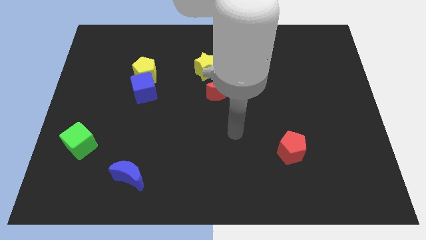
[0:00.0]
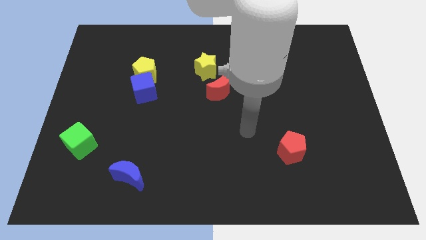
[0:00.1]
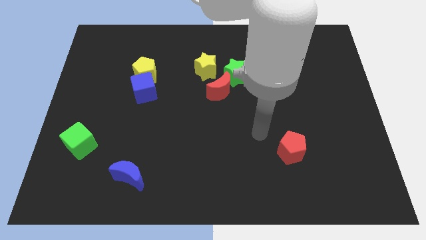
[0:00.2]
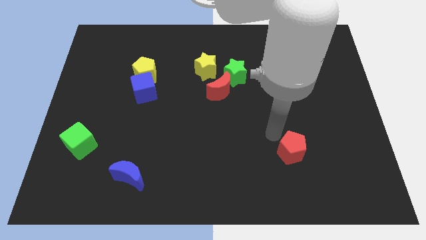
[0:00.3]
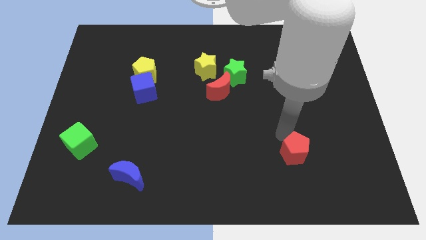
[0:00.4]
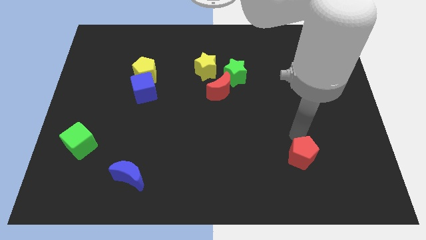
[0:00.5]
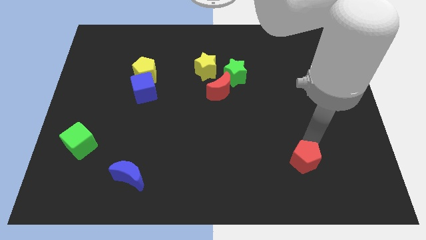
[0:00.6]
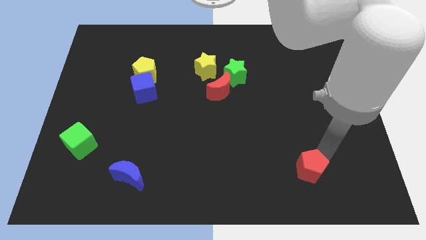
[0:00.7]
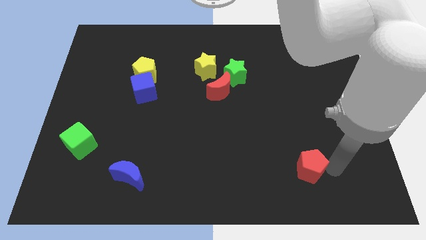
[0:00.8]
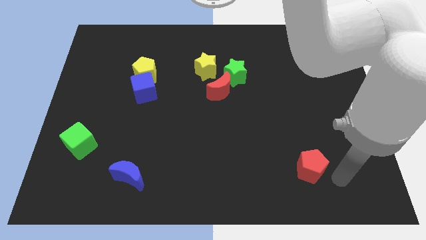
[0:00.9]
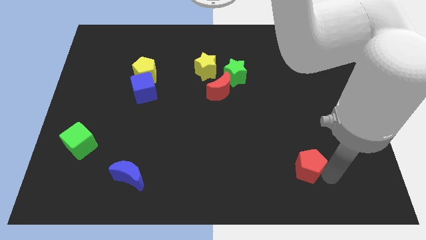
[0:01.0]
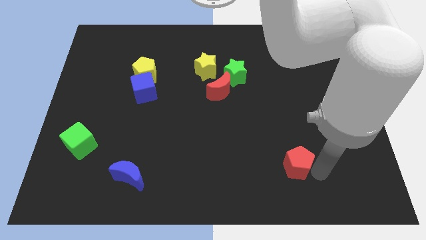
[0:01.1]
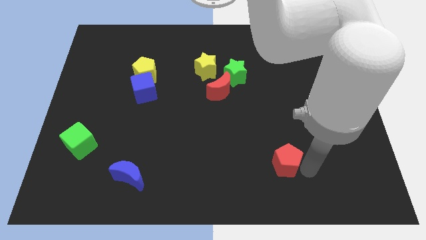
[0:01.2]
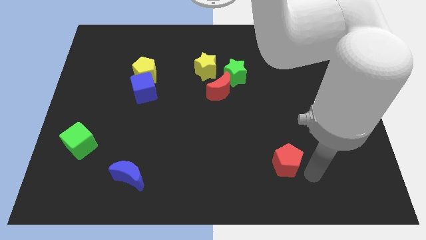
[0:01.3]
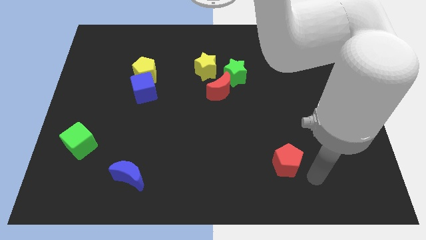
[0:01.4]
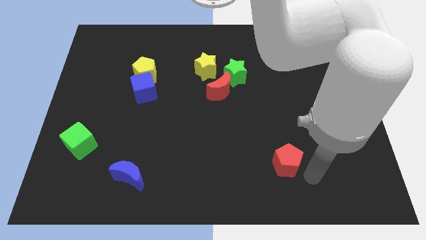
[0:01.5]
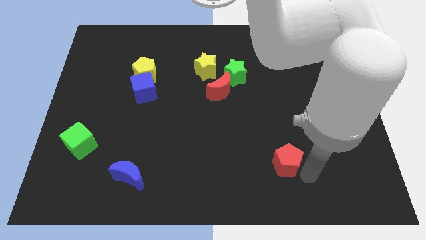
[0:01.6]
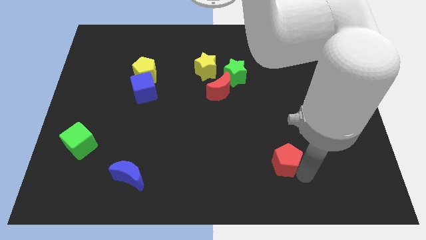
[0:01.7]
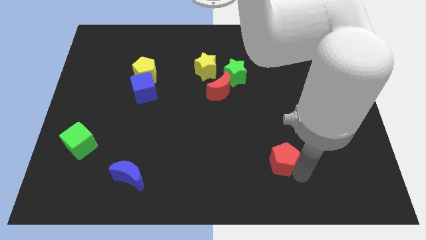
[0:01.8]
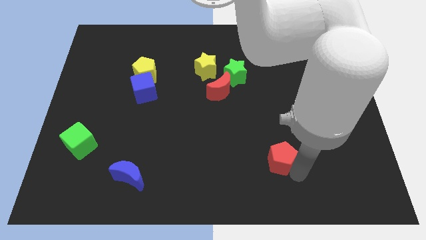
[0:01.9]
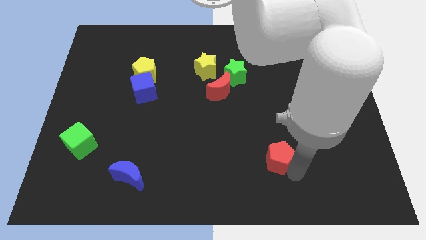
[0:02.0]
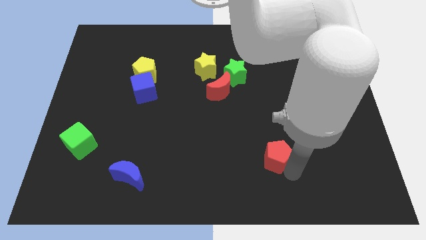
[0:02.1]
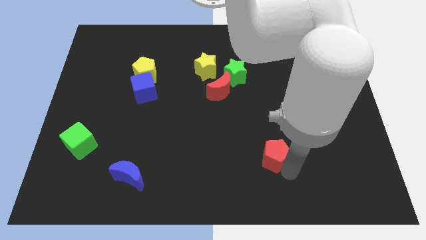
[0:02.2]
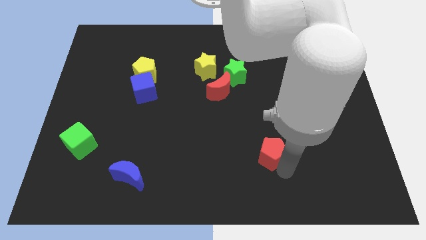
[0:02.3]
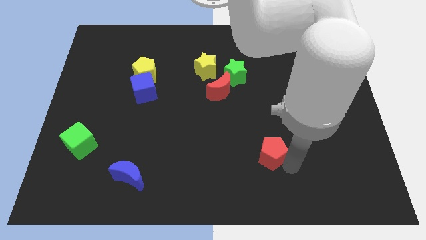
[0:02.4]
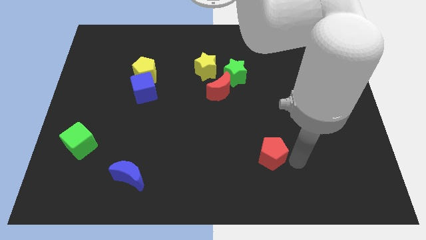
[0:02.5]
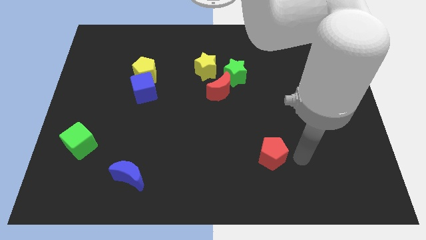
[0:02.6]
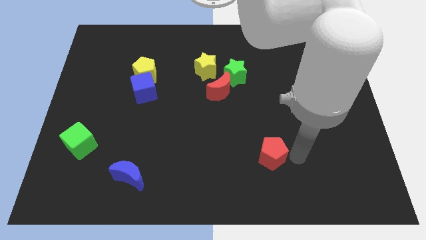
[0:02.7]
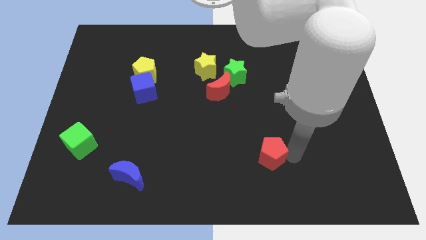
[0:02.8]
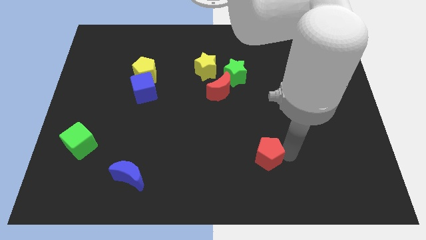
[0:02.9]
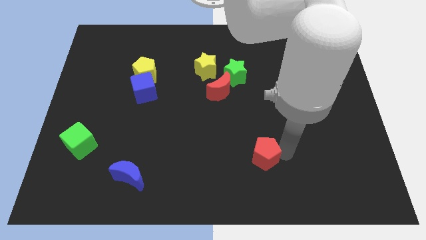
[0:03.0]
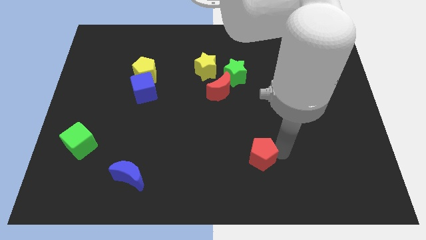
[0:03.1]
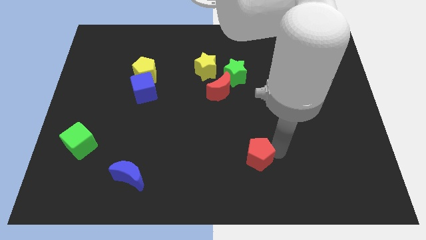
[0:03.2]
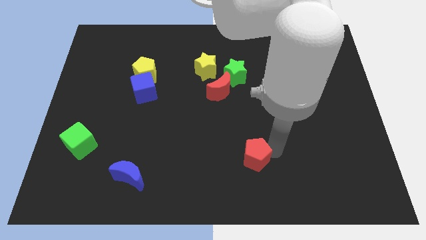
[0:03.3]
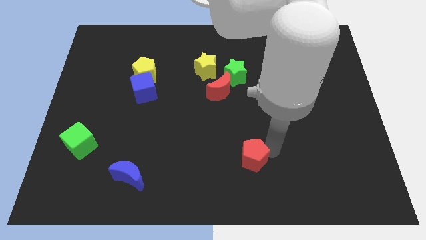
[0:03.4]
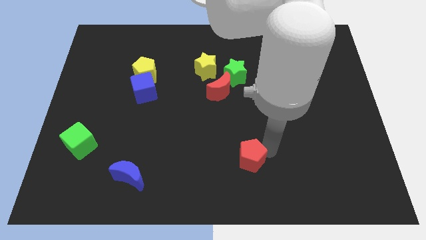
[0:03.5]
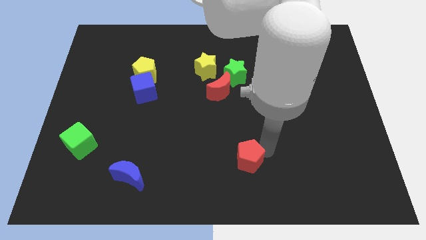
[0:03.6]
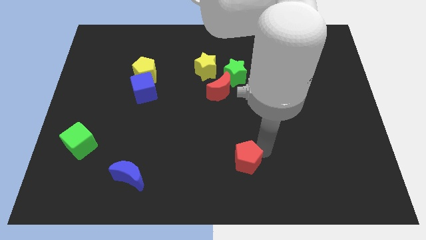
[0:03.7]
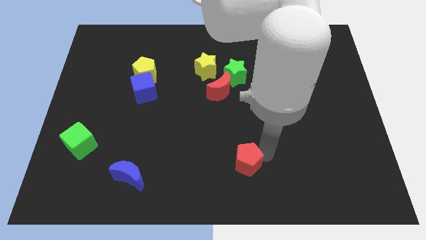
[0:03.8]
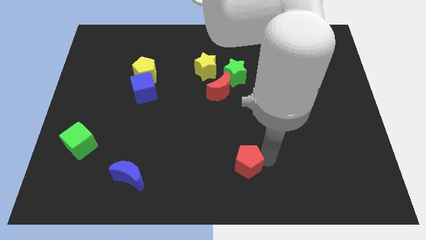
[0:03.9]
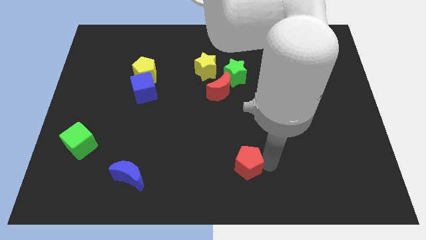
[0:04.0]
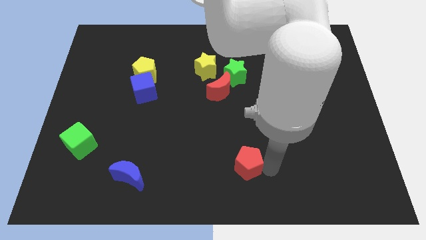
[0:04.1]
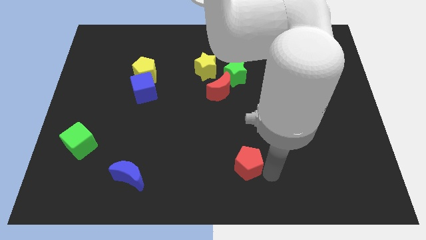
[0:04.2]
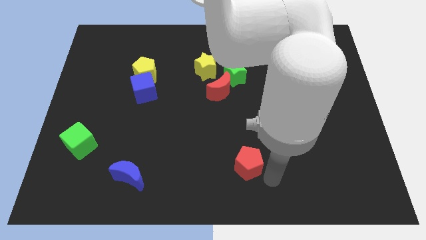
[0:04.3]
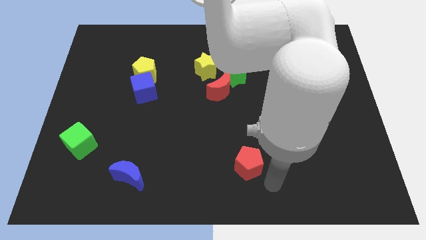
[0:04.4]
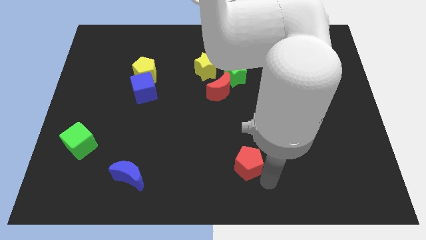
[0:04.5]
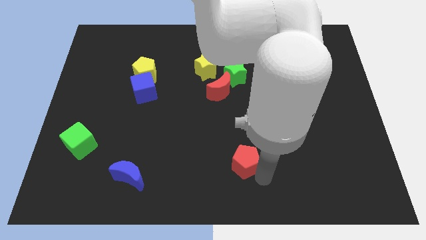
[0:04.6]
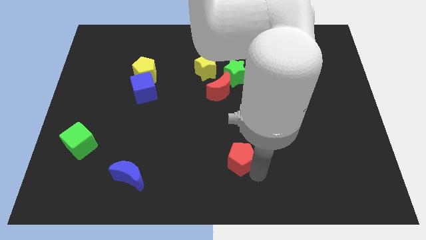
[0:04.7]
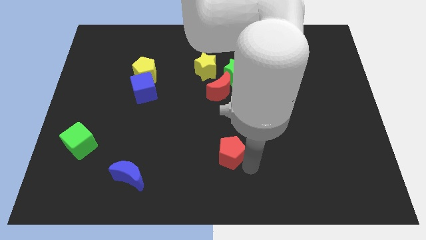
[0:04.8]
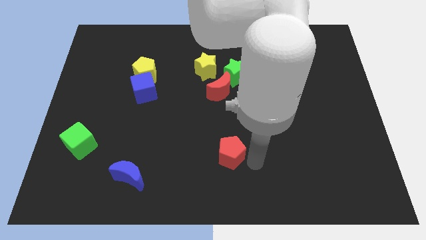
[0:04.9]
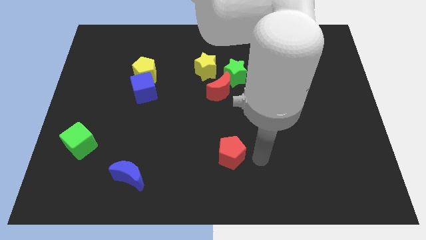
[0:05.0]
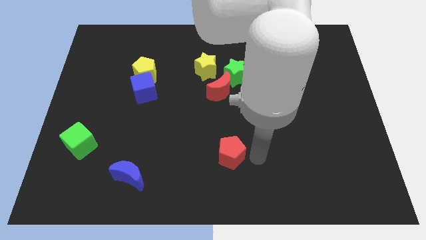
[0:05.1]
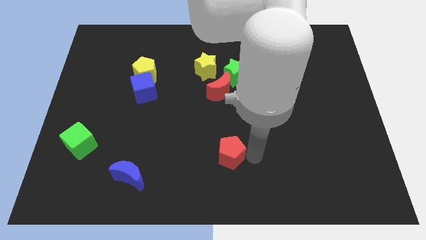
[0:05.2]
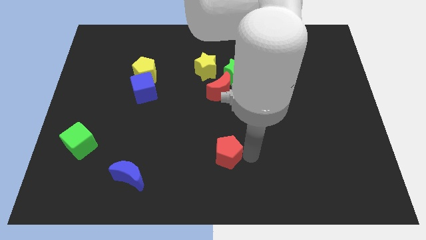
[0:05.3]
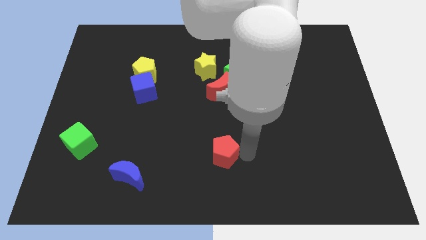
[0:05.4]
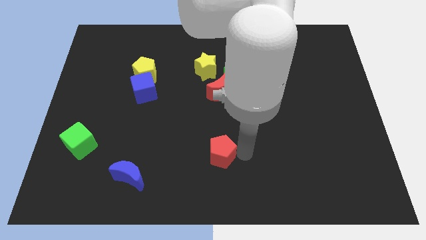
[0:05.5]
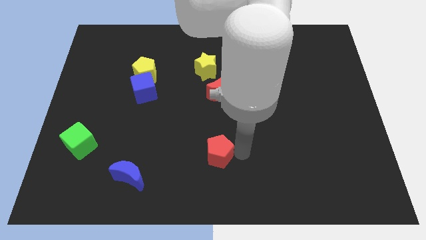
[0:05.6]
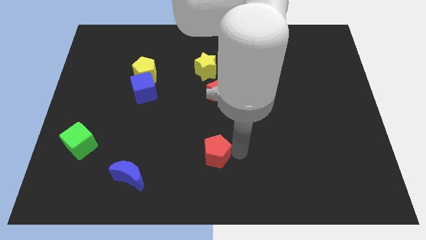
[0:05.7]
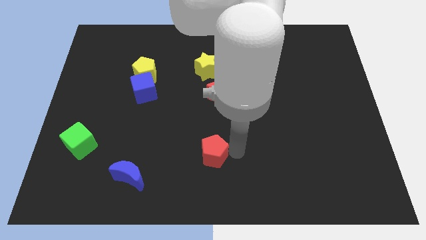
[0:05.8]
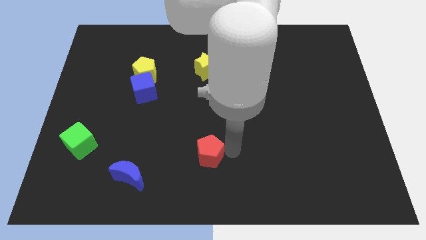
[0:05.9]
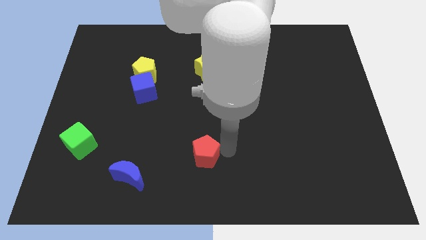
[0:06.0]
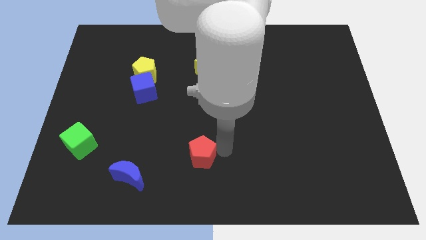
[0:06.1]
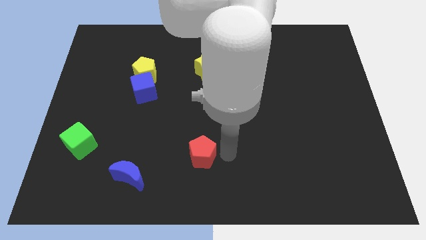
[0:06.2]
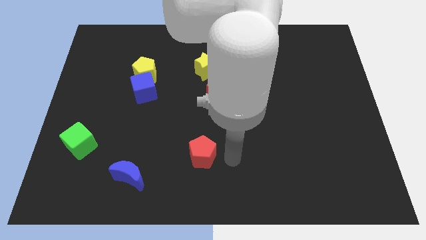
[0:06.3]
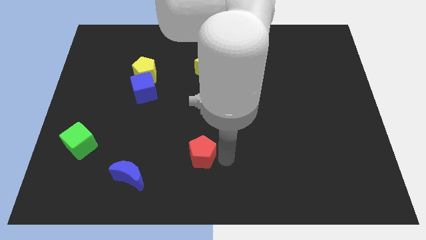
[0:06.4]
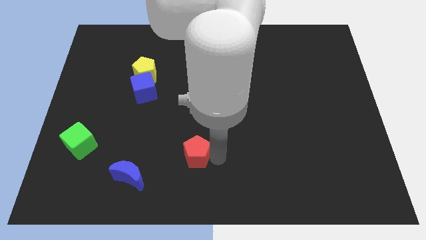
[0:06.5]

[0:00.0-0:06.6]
move the red pentagon left

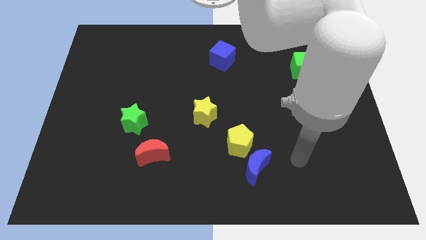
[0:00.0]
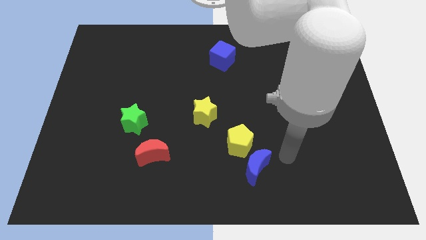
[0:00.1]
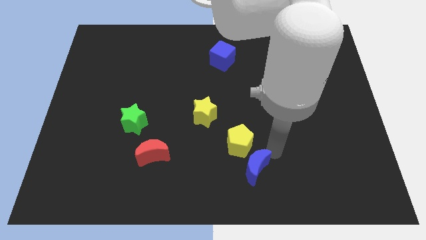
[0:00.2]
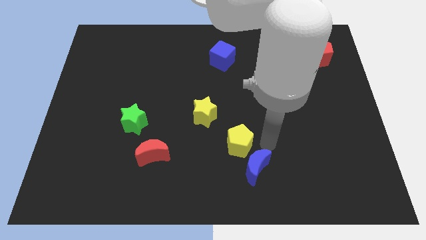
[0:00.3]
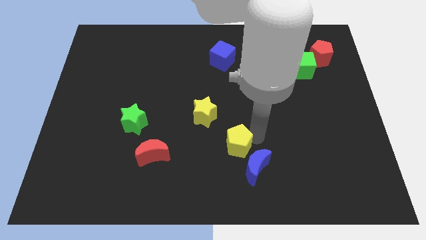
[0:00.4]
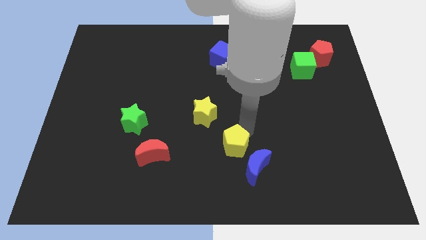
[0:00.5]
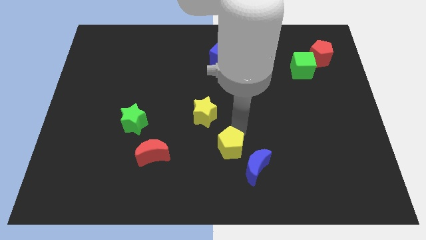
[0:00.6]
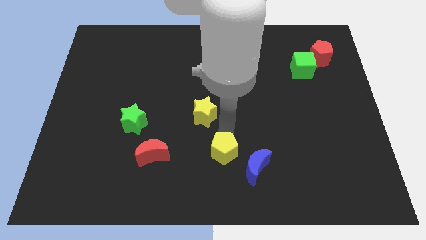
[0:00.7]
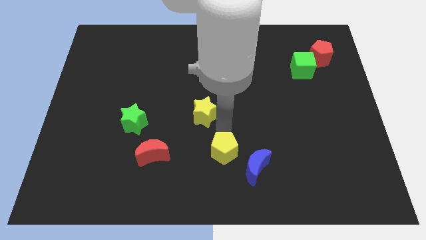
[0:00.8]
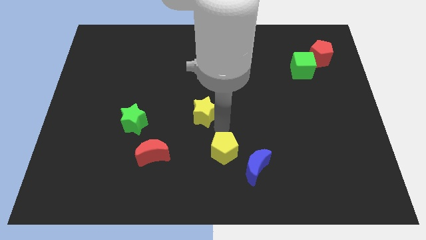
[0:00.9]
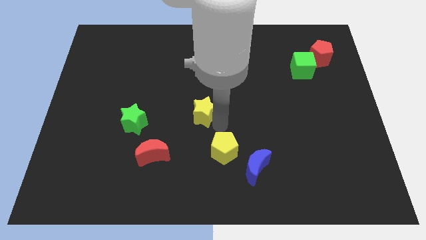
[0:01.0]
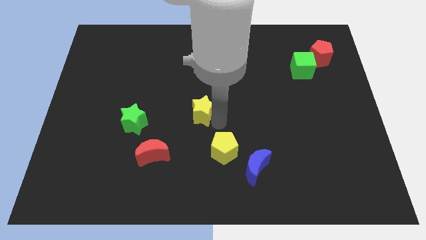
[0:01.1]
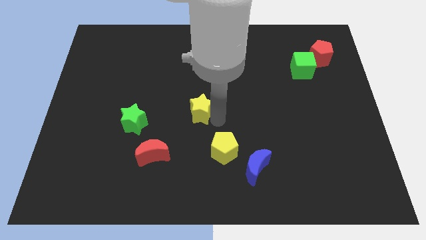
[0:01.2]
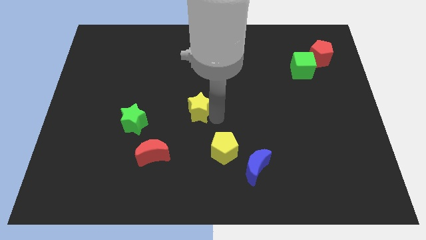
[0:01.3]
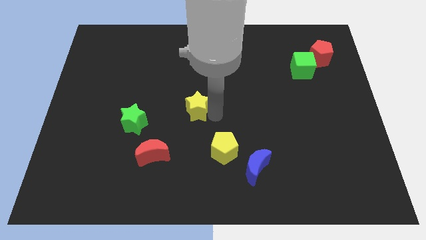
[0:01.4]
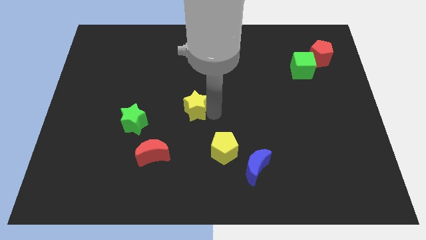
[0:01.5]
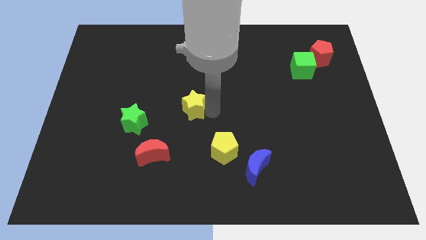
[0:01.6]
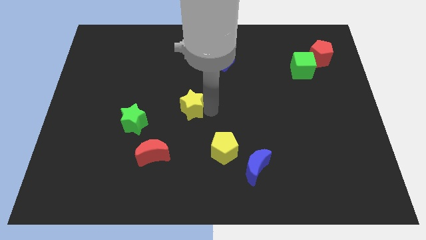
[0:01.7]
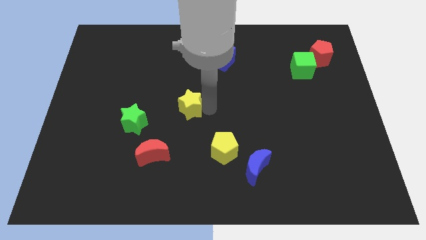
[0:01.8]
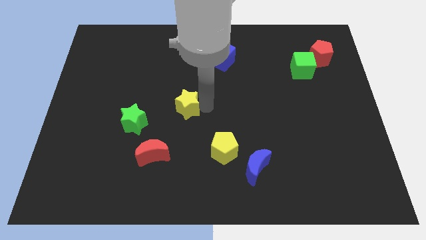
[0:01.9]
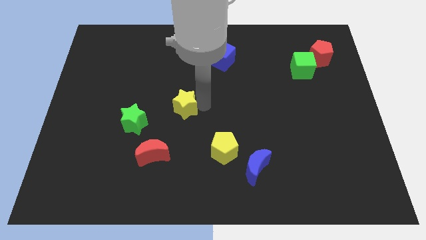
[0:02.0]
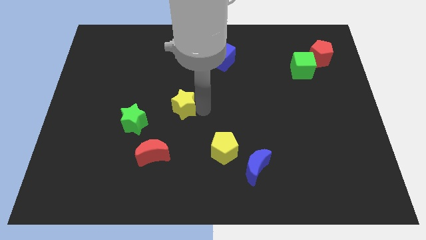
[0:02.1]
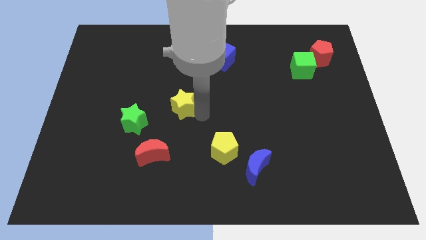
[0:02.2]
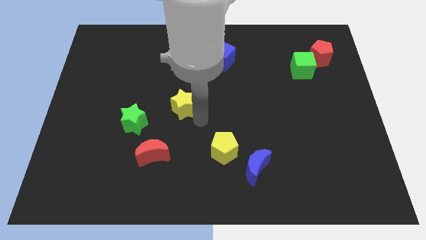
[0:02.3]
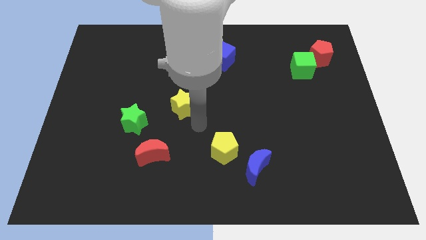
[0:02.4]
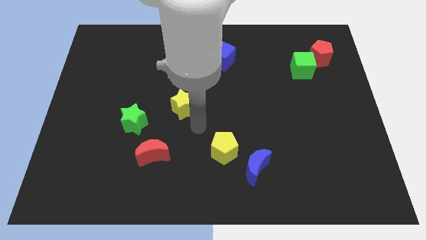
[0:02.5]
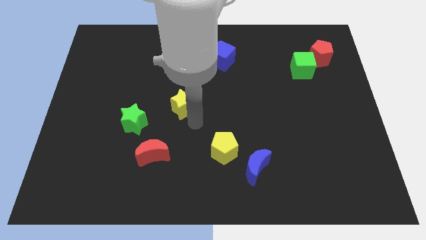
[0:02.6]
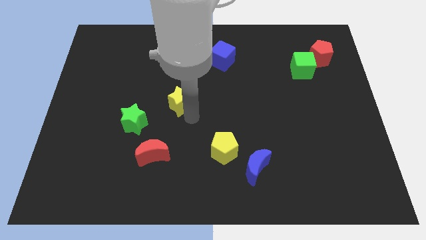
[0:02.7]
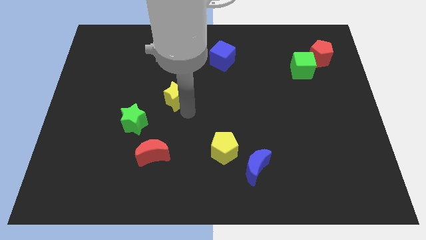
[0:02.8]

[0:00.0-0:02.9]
move the yellow star upwards and to the left somewhat
